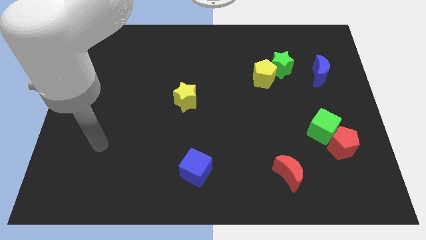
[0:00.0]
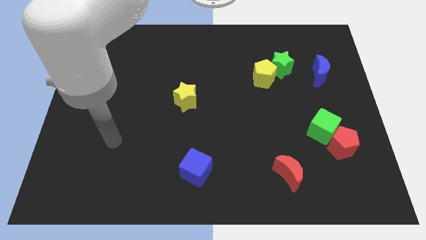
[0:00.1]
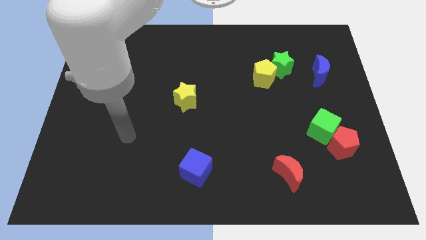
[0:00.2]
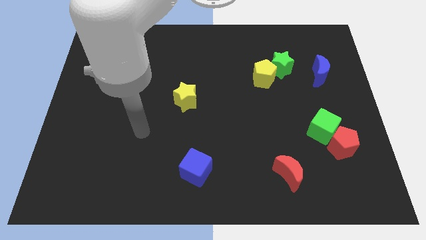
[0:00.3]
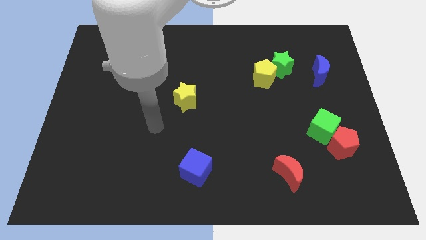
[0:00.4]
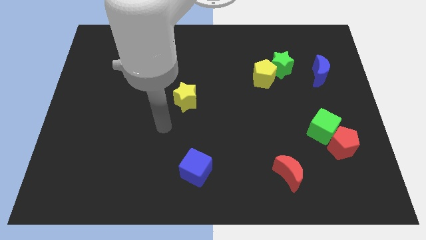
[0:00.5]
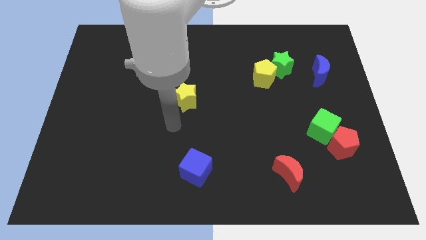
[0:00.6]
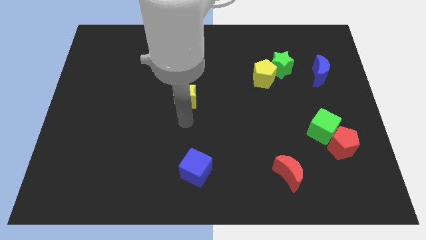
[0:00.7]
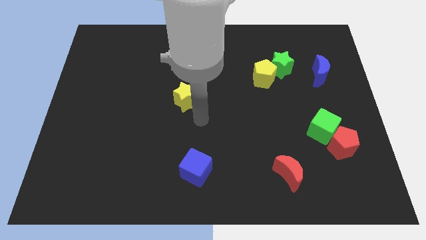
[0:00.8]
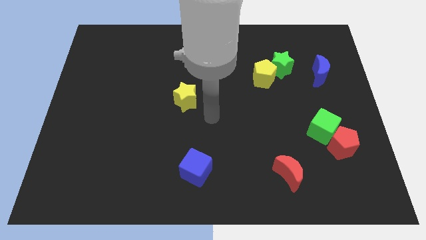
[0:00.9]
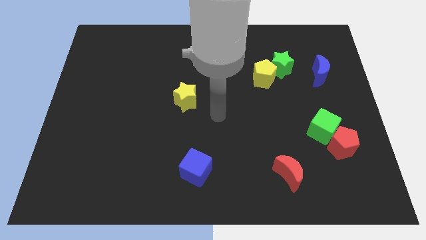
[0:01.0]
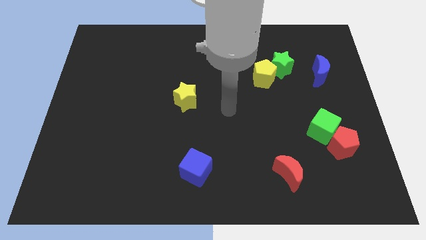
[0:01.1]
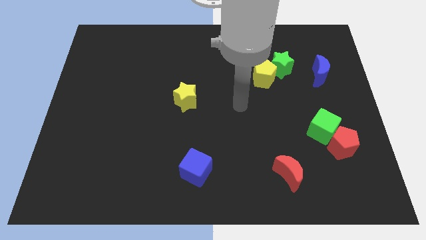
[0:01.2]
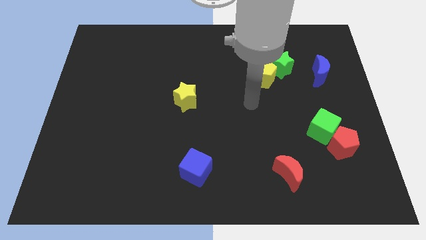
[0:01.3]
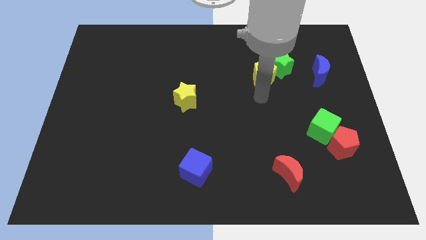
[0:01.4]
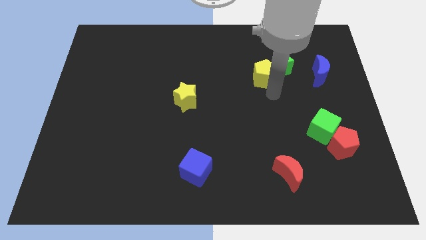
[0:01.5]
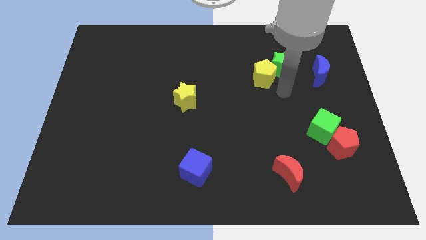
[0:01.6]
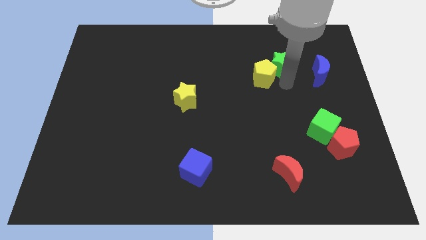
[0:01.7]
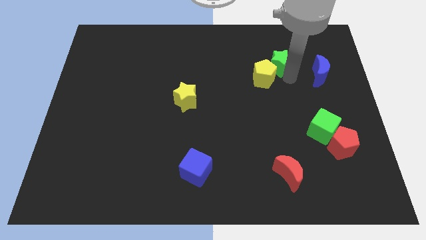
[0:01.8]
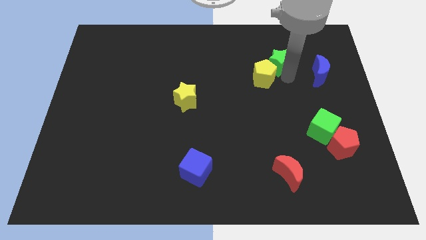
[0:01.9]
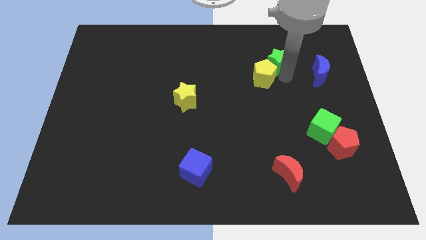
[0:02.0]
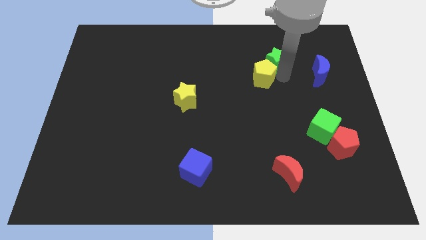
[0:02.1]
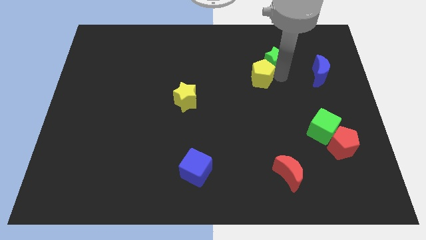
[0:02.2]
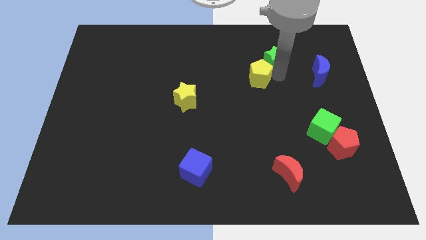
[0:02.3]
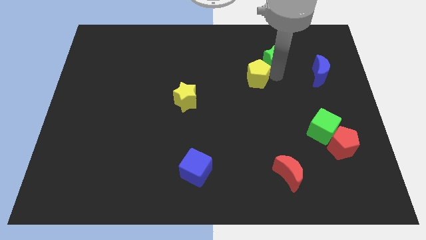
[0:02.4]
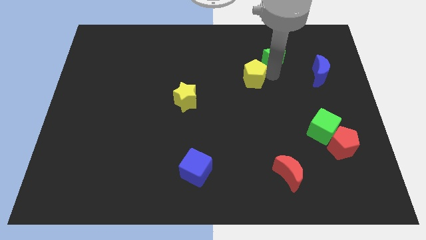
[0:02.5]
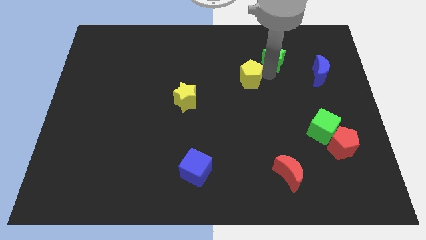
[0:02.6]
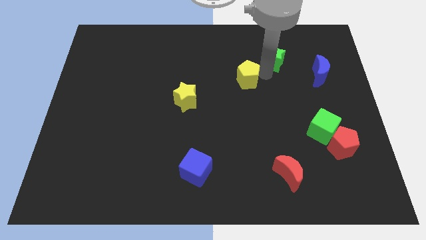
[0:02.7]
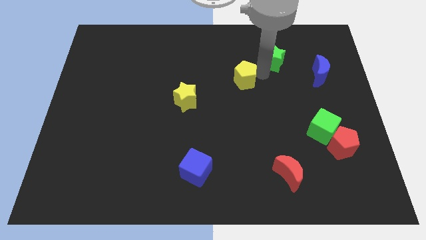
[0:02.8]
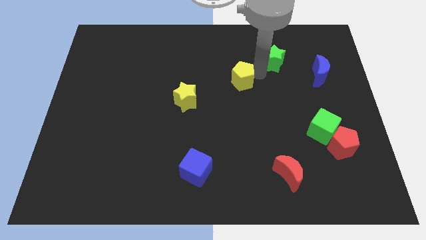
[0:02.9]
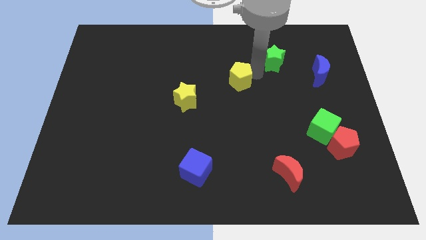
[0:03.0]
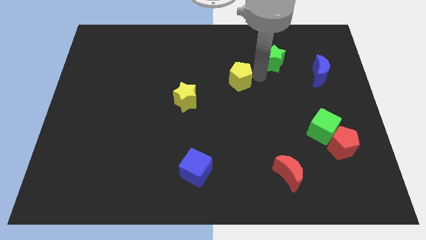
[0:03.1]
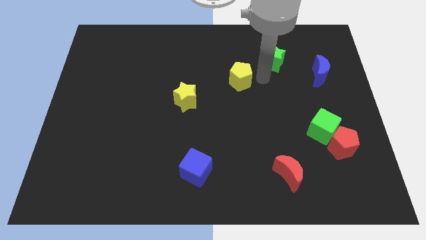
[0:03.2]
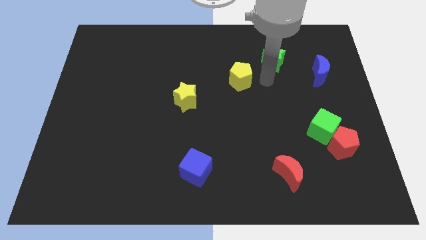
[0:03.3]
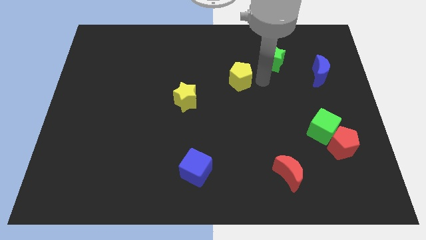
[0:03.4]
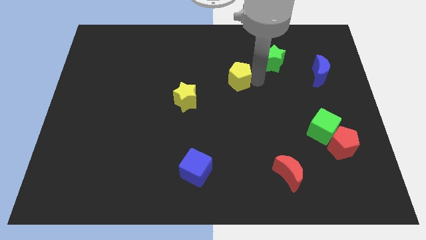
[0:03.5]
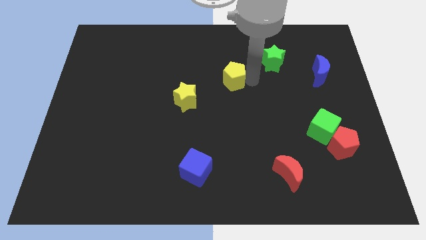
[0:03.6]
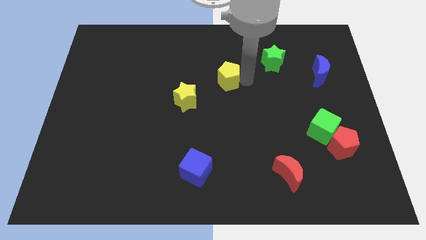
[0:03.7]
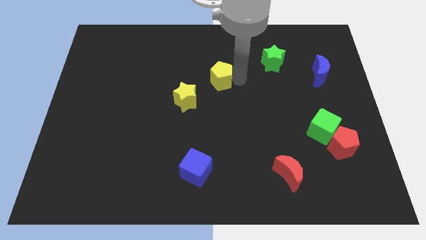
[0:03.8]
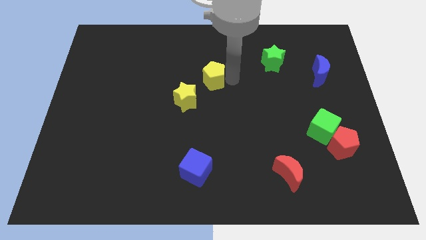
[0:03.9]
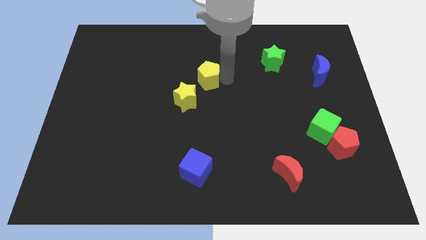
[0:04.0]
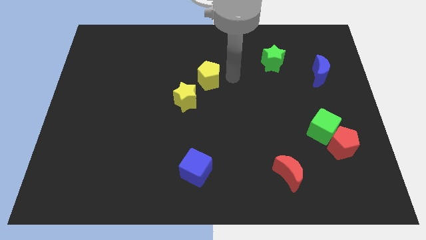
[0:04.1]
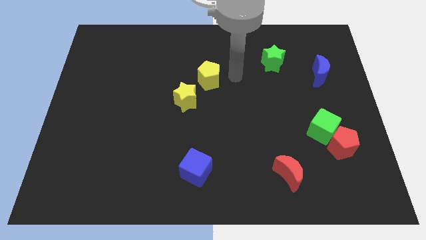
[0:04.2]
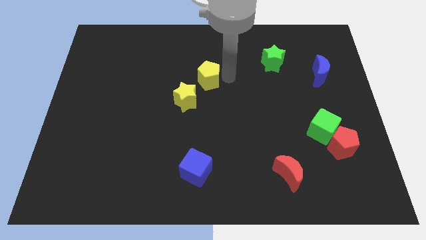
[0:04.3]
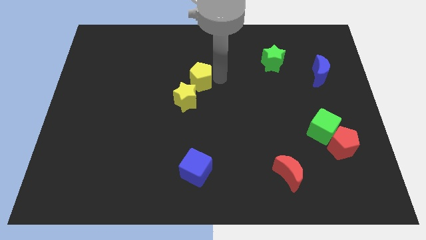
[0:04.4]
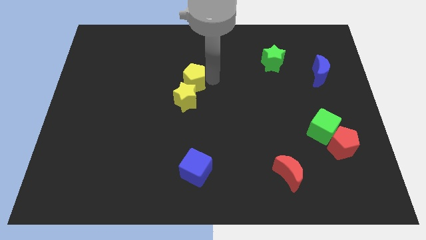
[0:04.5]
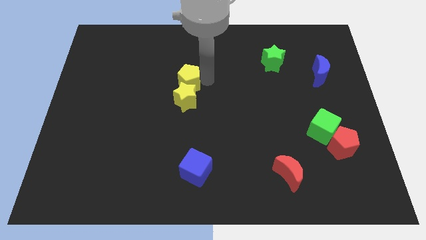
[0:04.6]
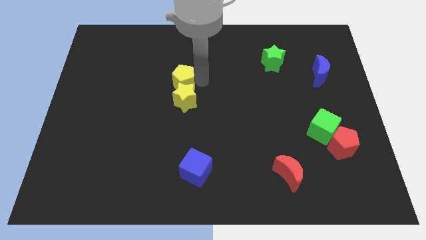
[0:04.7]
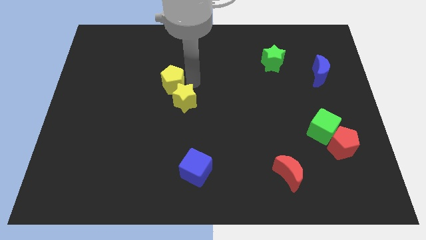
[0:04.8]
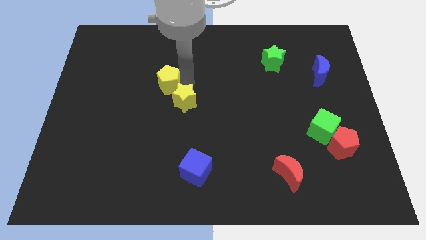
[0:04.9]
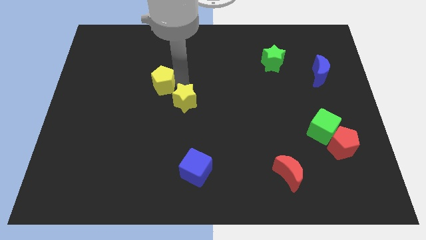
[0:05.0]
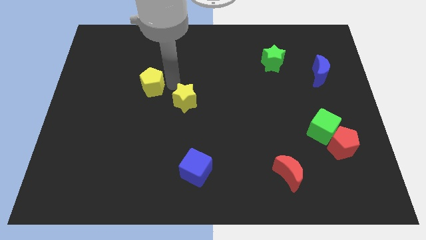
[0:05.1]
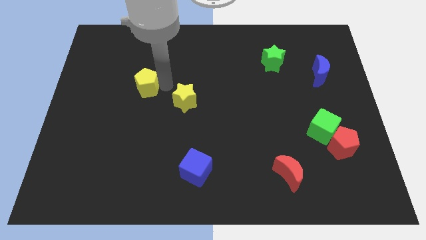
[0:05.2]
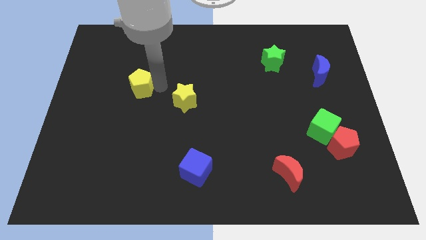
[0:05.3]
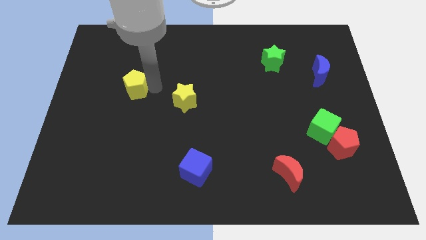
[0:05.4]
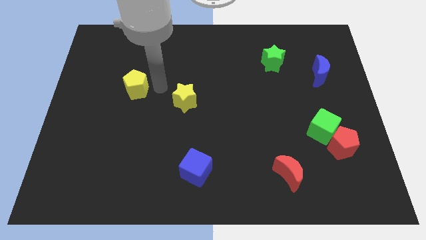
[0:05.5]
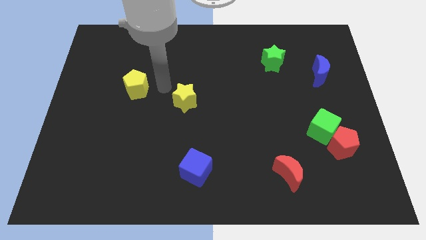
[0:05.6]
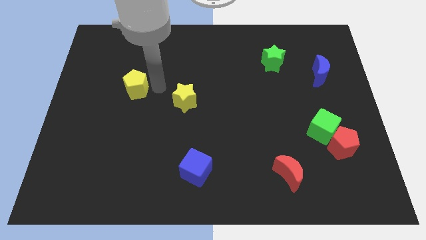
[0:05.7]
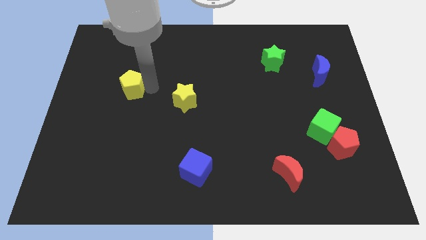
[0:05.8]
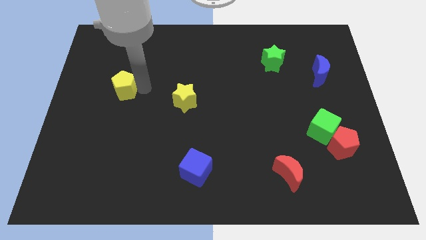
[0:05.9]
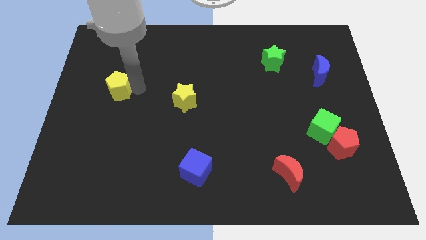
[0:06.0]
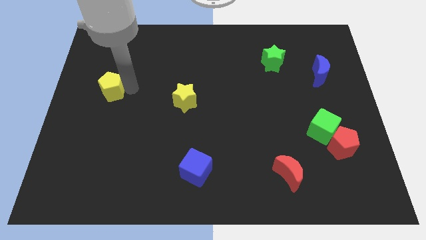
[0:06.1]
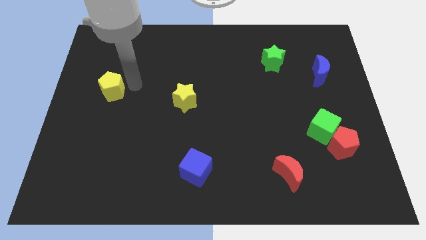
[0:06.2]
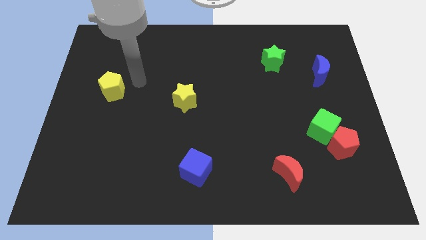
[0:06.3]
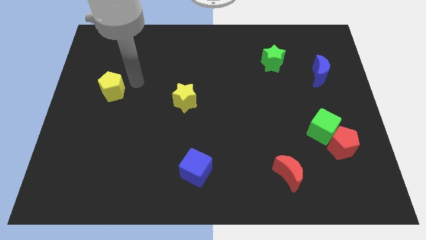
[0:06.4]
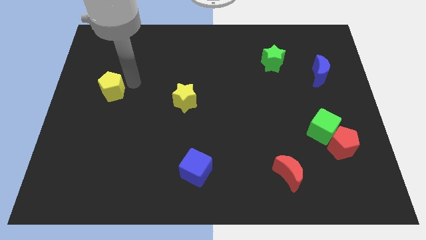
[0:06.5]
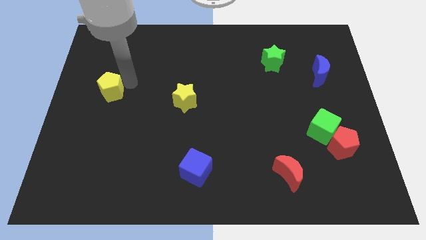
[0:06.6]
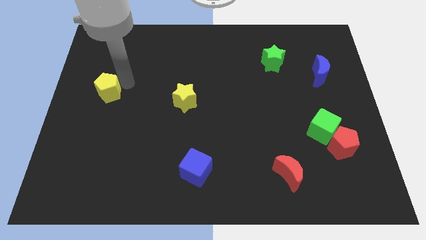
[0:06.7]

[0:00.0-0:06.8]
put the yellow pentagon to the left side
